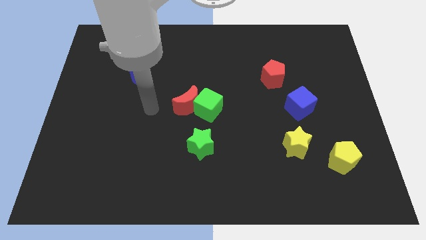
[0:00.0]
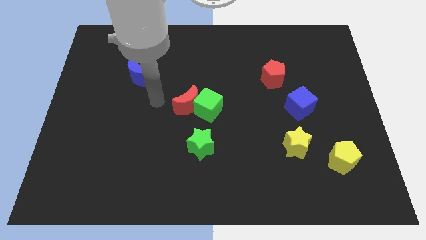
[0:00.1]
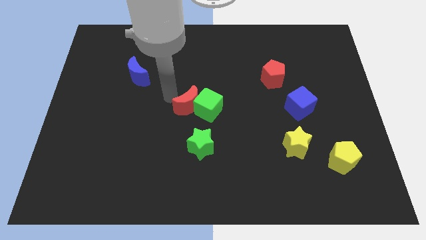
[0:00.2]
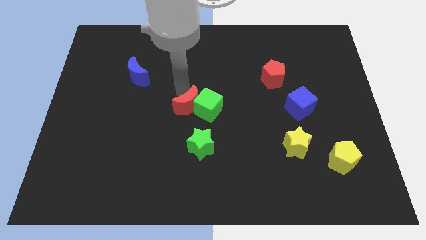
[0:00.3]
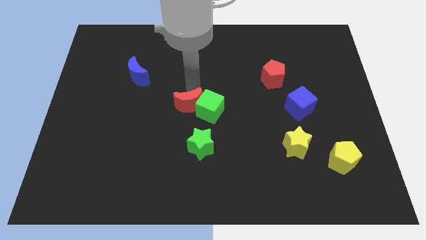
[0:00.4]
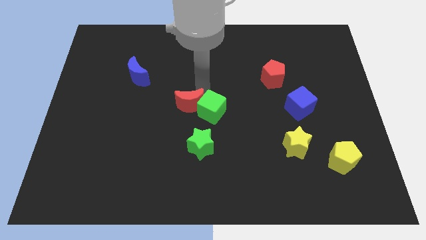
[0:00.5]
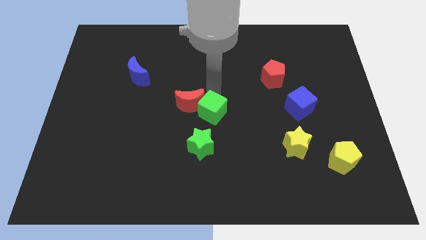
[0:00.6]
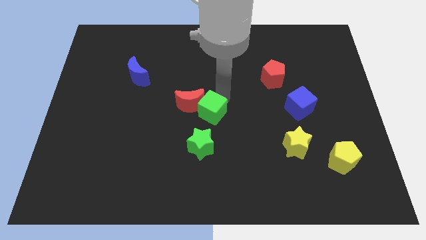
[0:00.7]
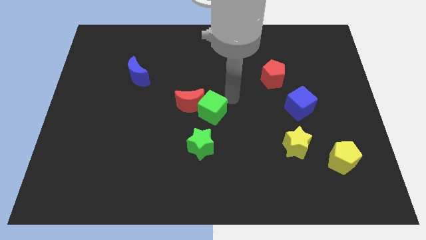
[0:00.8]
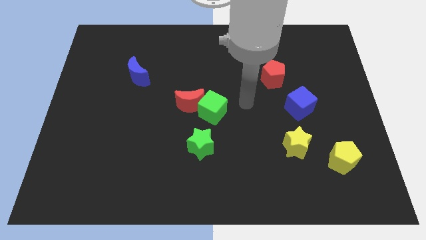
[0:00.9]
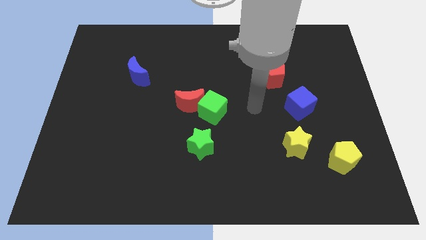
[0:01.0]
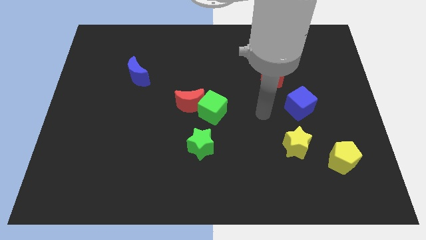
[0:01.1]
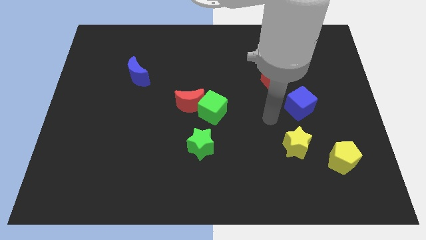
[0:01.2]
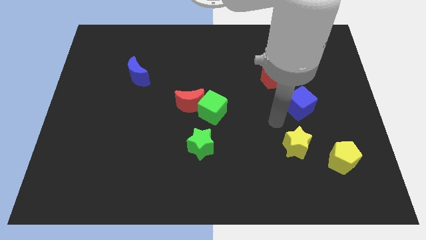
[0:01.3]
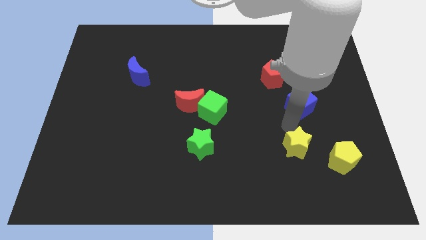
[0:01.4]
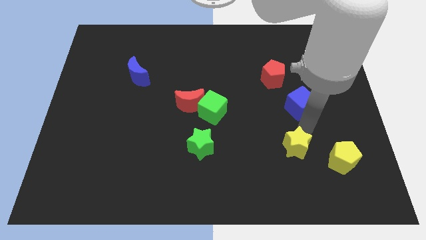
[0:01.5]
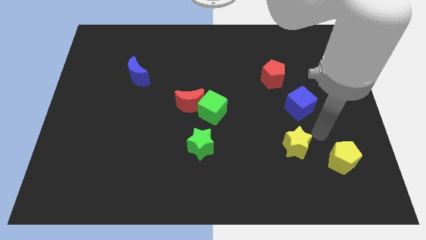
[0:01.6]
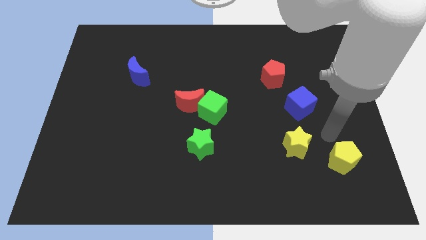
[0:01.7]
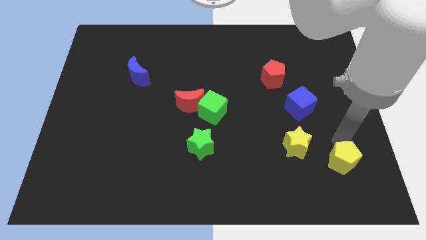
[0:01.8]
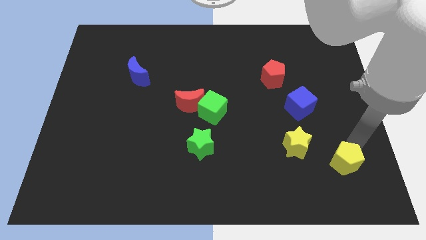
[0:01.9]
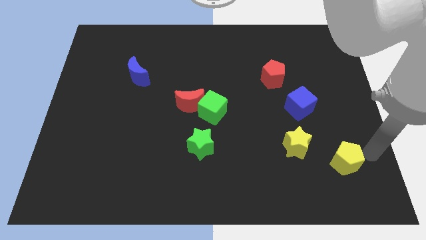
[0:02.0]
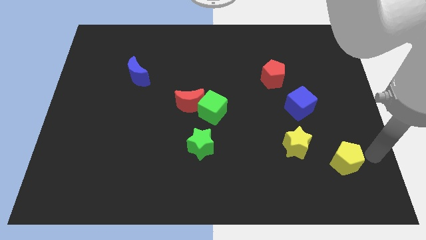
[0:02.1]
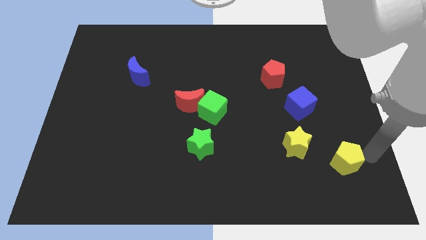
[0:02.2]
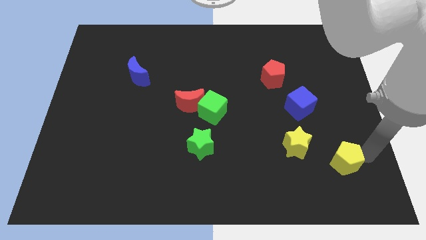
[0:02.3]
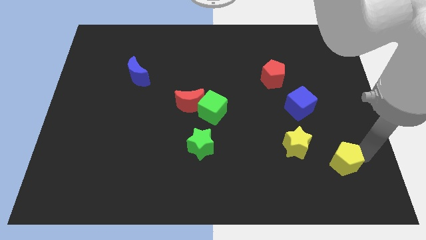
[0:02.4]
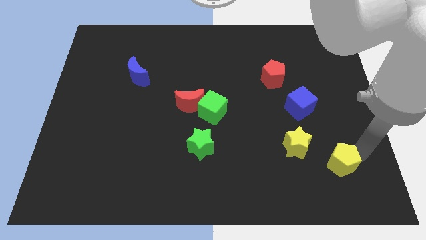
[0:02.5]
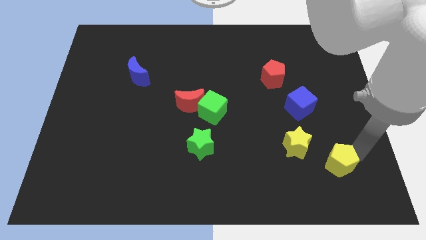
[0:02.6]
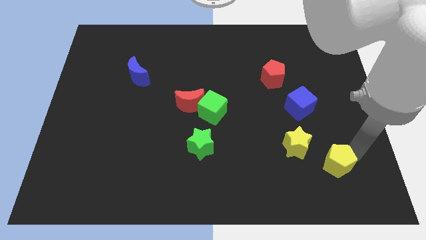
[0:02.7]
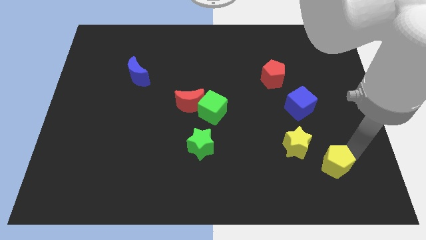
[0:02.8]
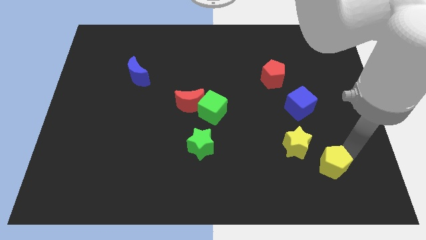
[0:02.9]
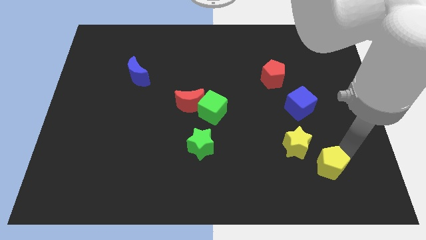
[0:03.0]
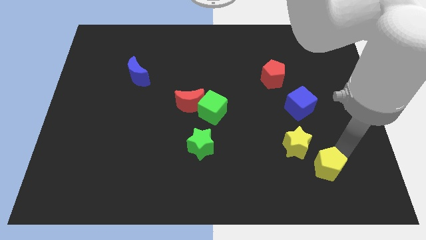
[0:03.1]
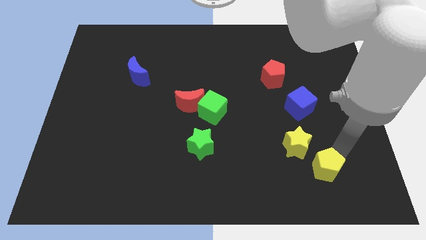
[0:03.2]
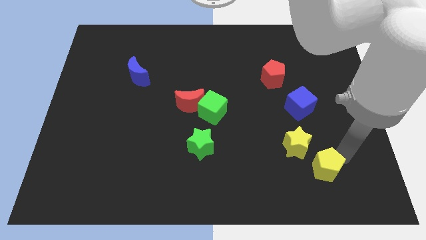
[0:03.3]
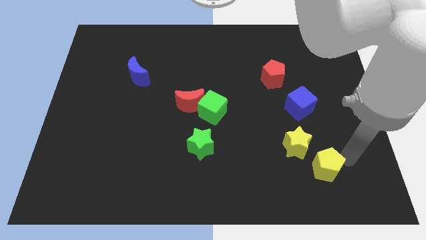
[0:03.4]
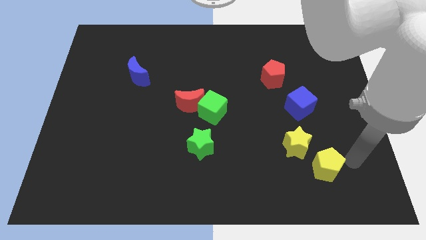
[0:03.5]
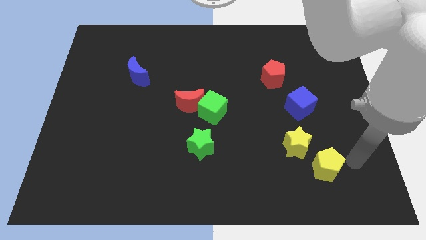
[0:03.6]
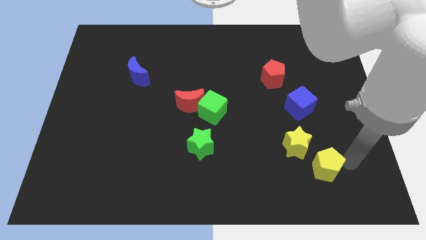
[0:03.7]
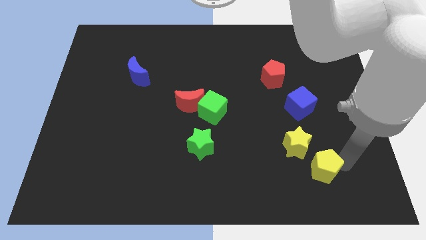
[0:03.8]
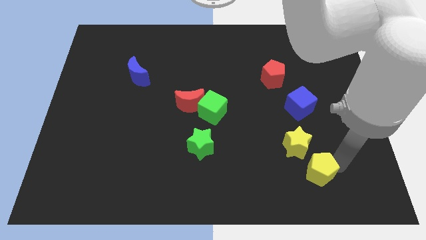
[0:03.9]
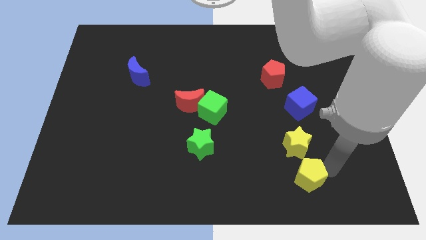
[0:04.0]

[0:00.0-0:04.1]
move the yellow pentagon to the left somewhat

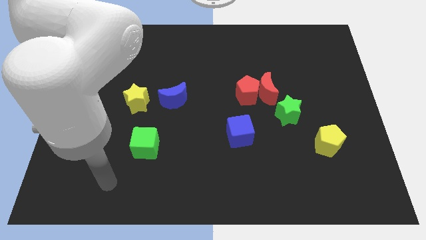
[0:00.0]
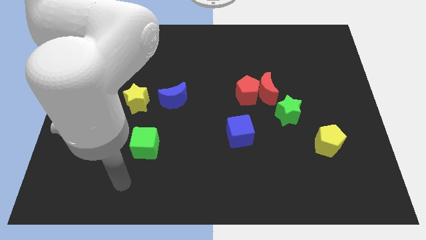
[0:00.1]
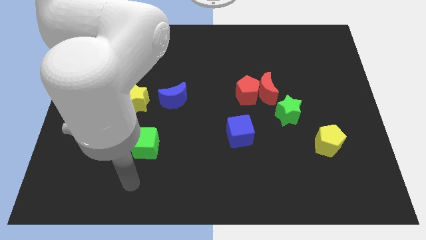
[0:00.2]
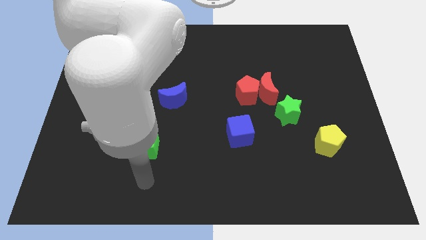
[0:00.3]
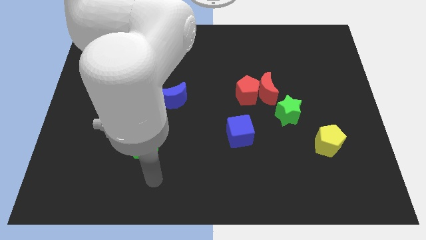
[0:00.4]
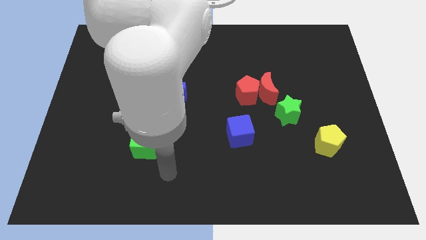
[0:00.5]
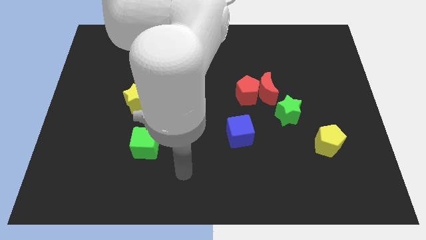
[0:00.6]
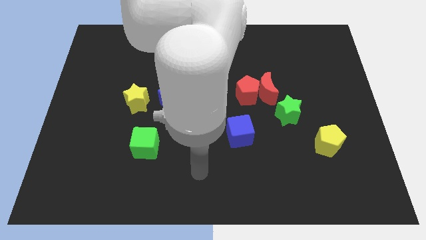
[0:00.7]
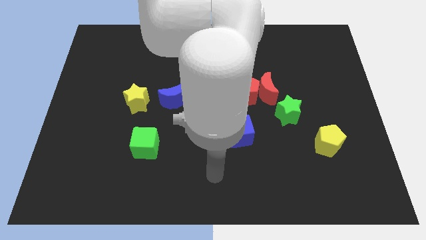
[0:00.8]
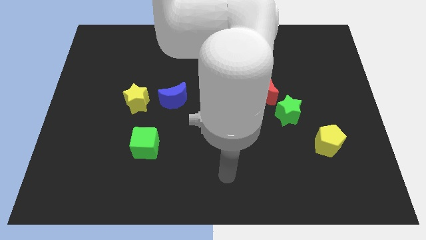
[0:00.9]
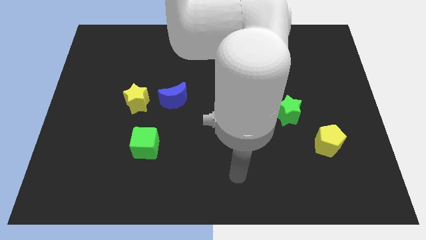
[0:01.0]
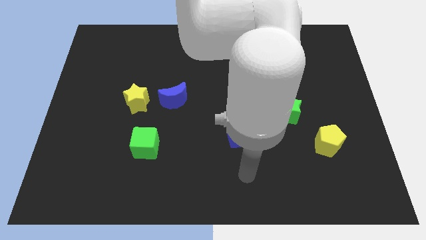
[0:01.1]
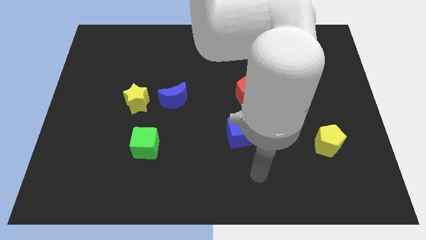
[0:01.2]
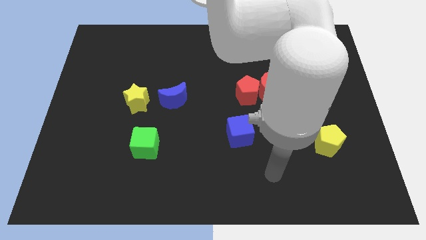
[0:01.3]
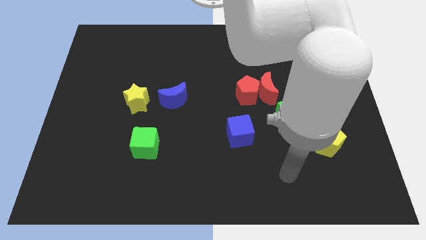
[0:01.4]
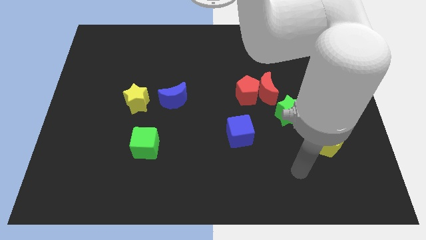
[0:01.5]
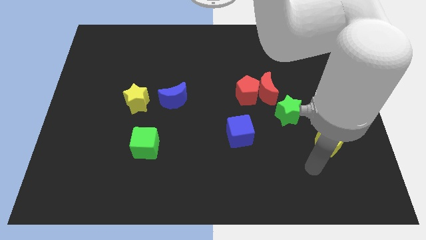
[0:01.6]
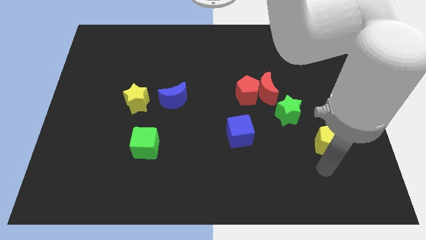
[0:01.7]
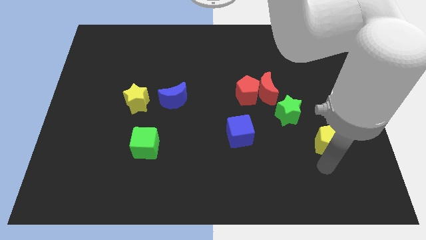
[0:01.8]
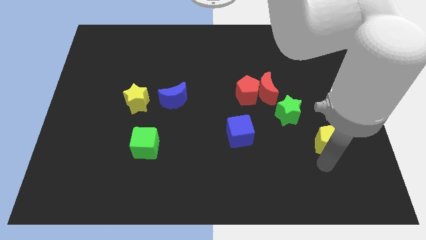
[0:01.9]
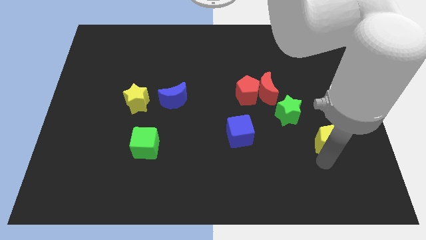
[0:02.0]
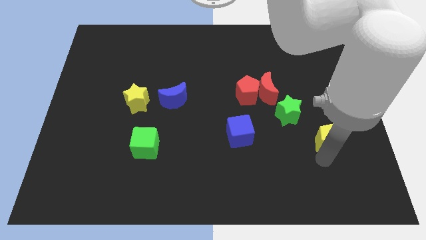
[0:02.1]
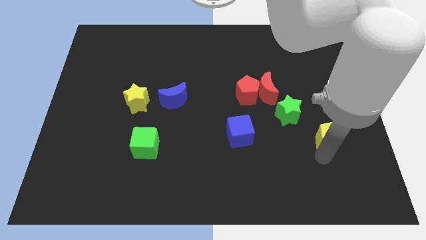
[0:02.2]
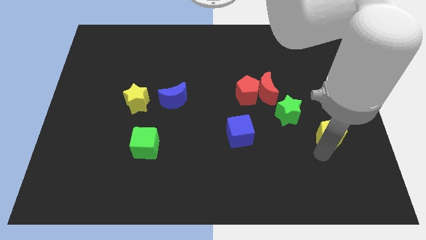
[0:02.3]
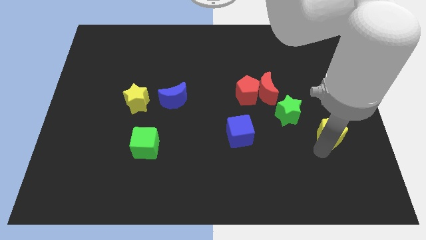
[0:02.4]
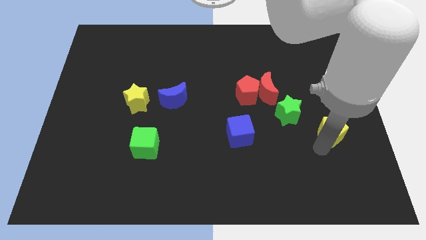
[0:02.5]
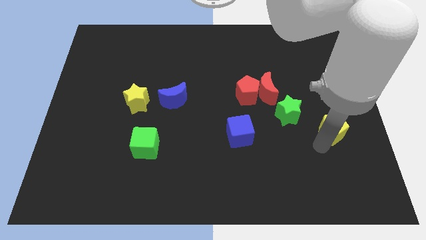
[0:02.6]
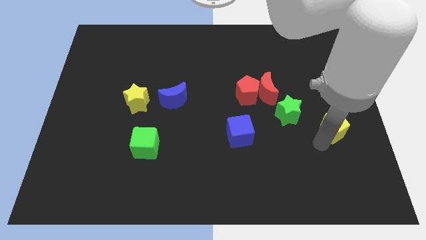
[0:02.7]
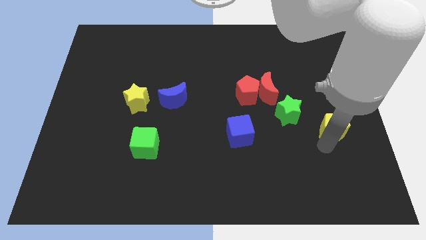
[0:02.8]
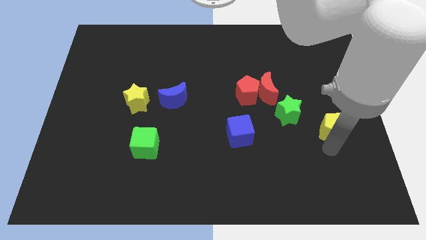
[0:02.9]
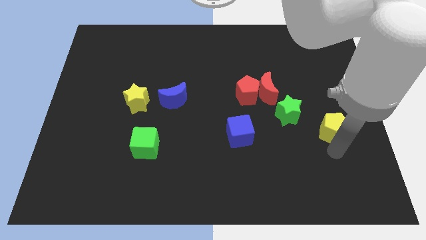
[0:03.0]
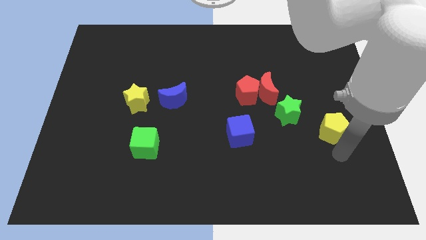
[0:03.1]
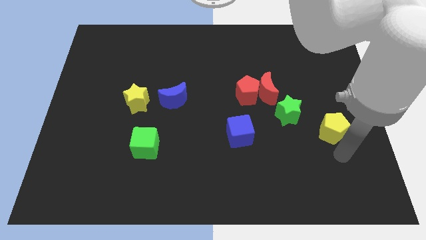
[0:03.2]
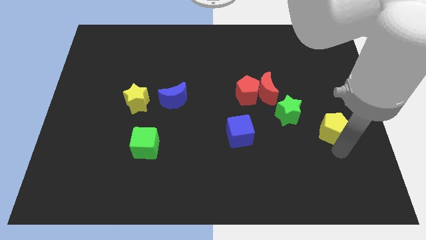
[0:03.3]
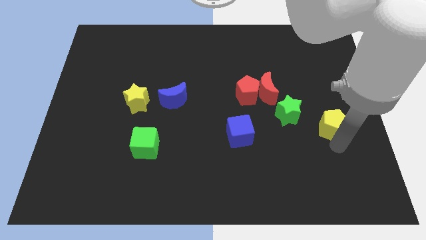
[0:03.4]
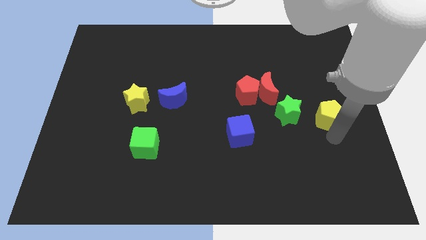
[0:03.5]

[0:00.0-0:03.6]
slide the yellow pentagon a little up

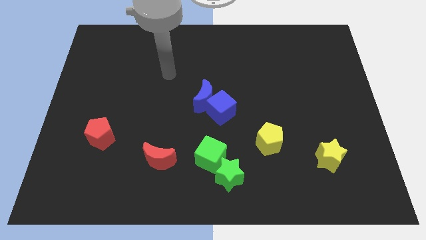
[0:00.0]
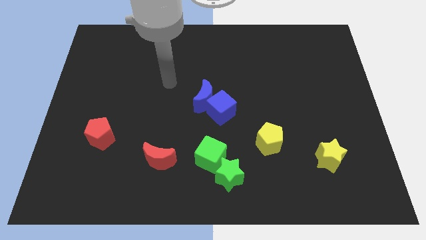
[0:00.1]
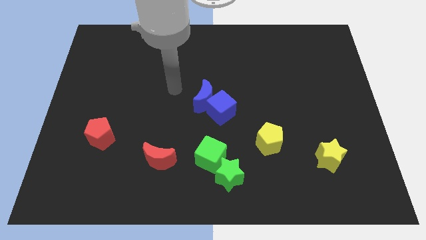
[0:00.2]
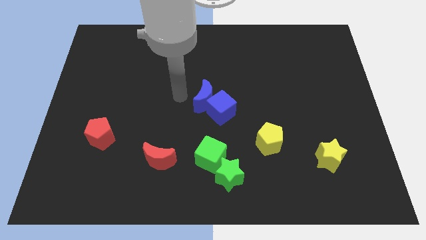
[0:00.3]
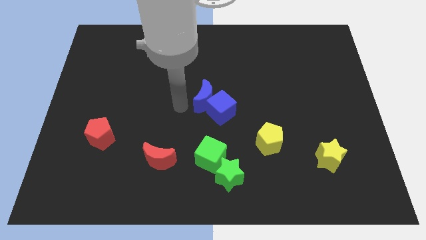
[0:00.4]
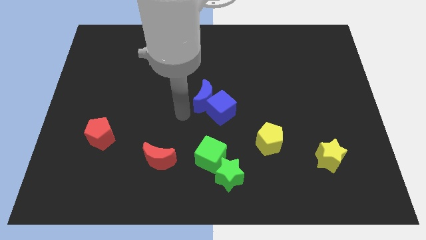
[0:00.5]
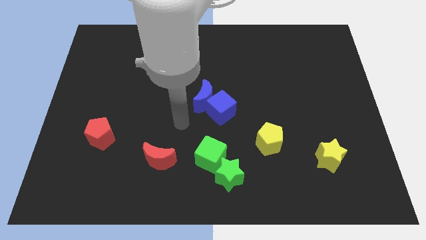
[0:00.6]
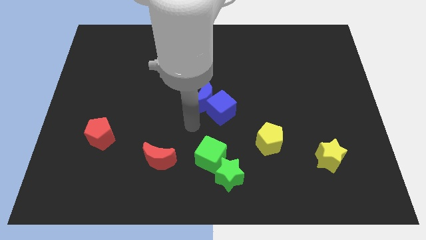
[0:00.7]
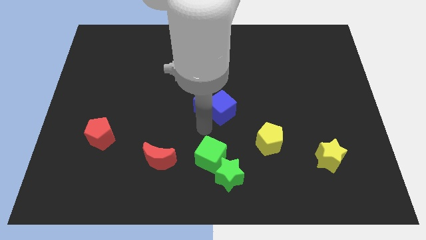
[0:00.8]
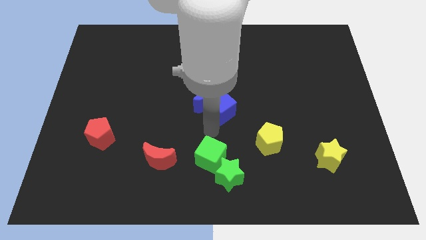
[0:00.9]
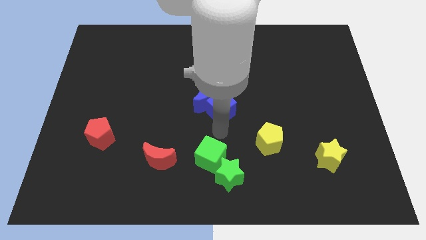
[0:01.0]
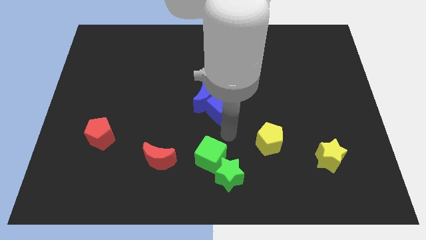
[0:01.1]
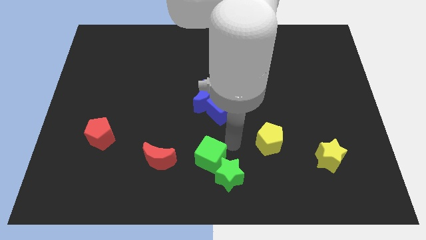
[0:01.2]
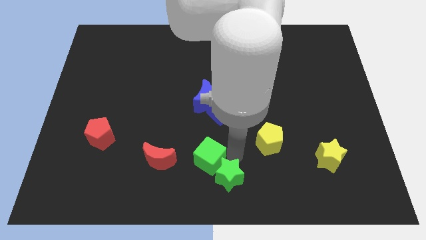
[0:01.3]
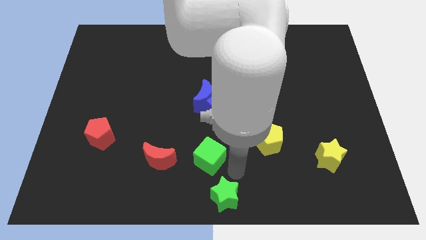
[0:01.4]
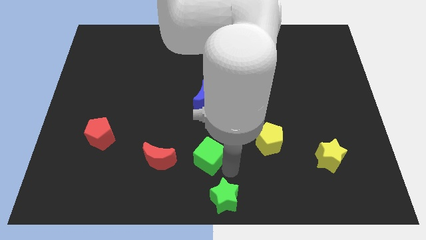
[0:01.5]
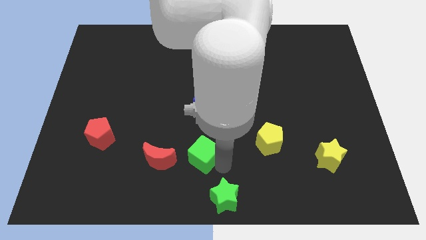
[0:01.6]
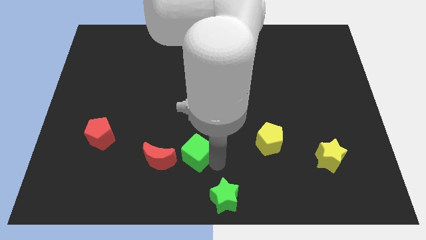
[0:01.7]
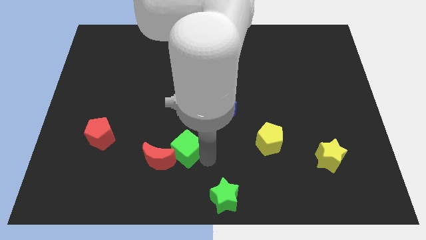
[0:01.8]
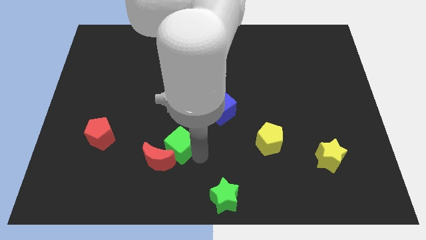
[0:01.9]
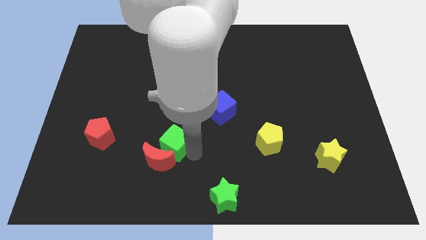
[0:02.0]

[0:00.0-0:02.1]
move the green cube to the left a little
